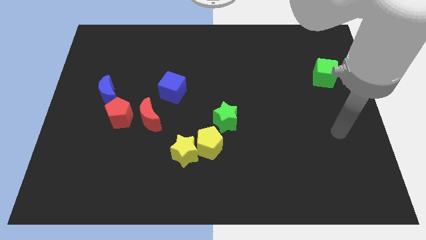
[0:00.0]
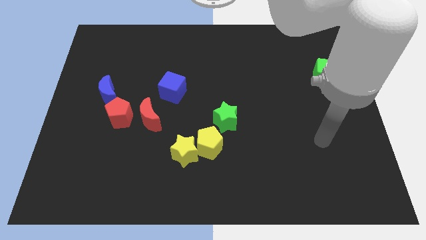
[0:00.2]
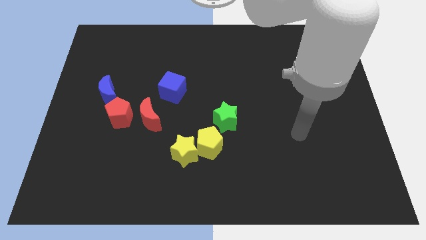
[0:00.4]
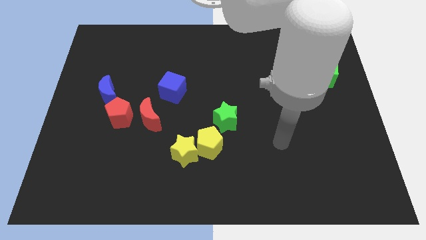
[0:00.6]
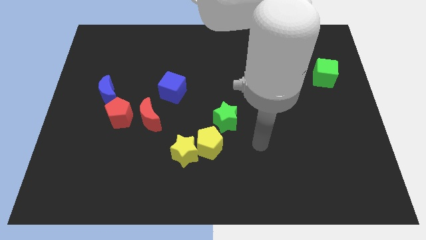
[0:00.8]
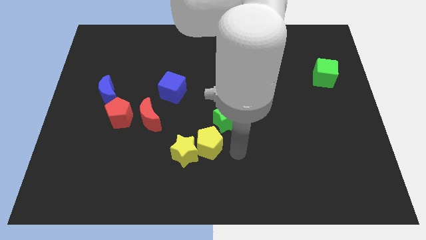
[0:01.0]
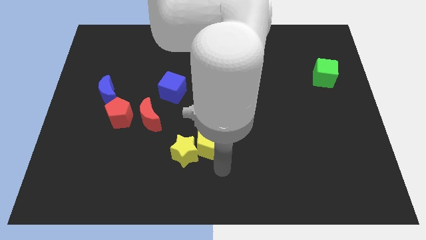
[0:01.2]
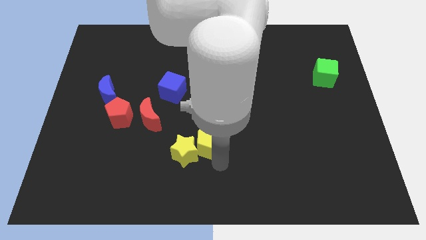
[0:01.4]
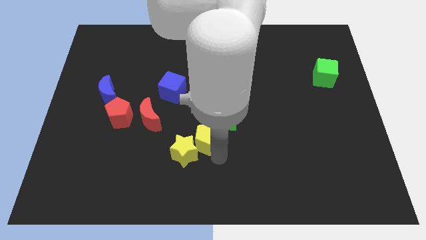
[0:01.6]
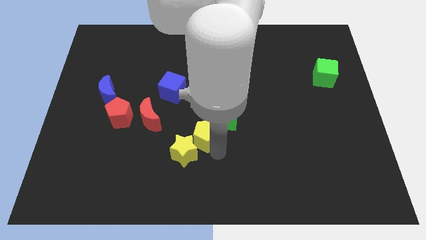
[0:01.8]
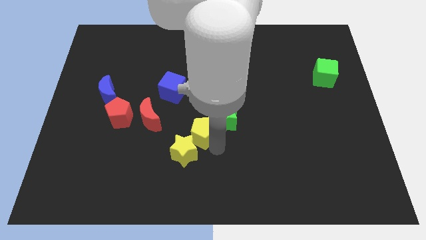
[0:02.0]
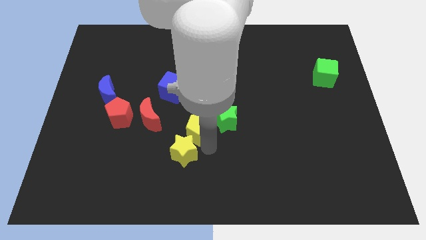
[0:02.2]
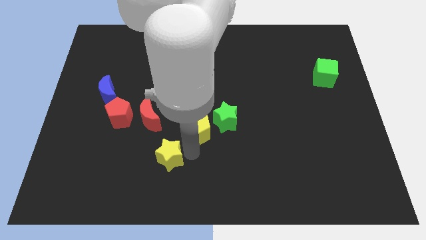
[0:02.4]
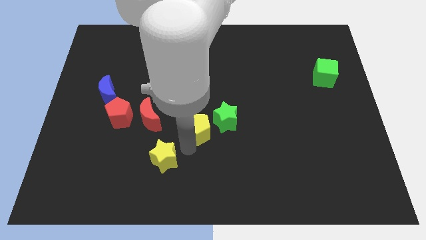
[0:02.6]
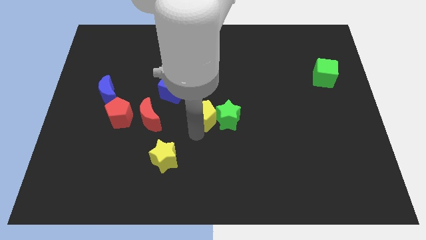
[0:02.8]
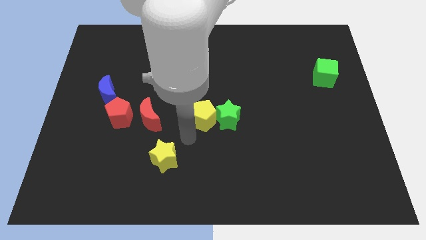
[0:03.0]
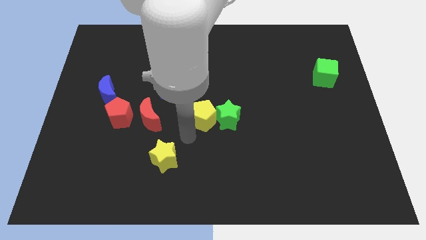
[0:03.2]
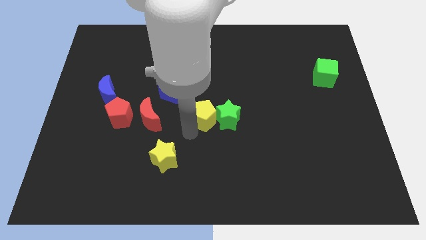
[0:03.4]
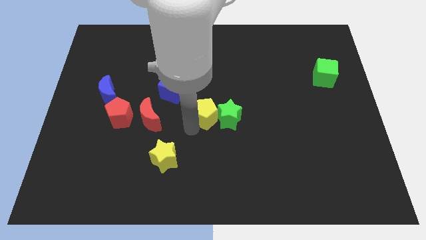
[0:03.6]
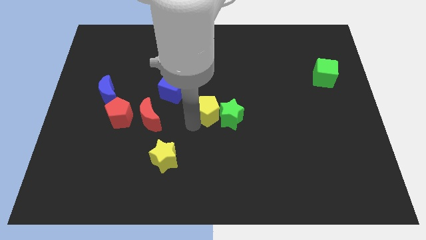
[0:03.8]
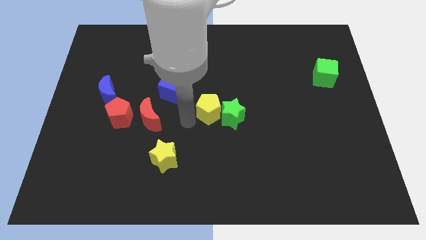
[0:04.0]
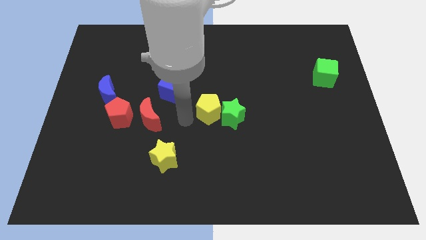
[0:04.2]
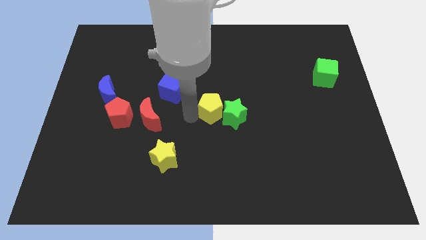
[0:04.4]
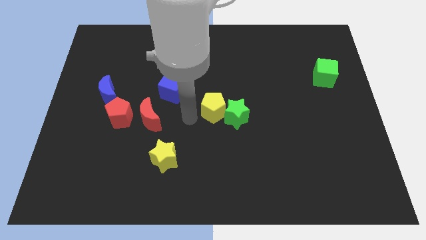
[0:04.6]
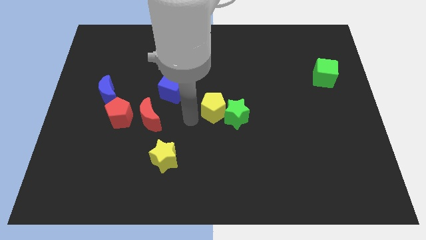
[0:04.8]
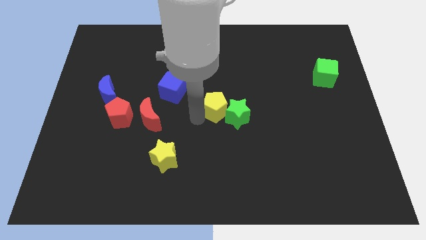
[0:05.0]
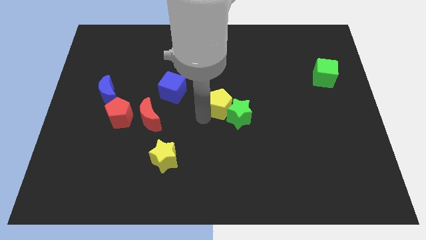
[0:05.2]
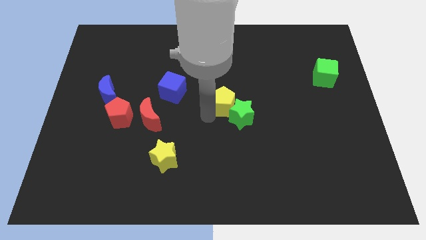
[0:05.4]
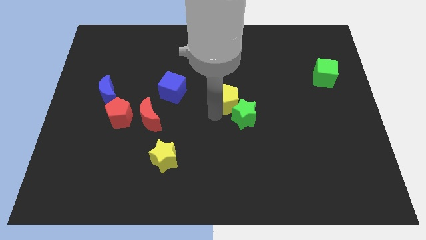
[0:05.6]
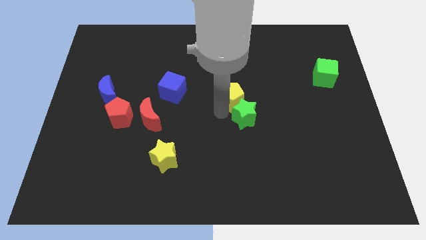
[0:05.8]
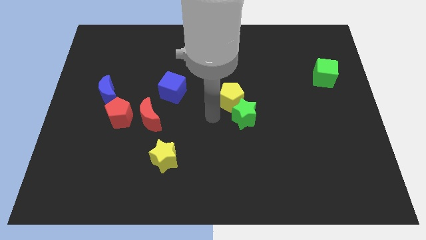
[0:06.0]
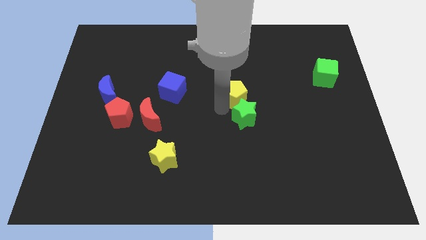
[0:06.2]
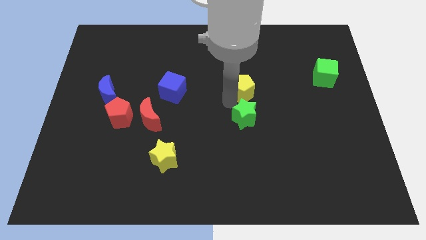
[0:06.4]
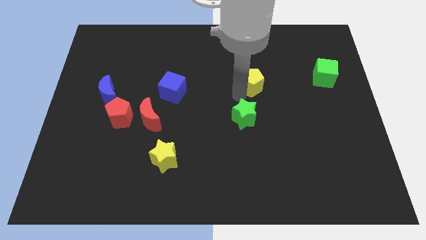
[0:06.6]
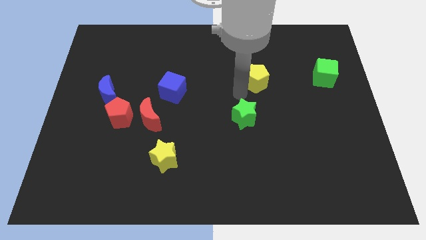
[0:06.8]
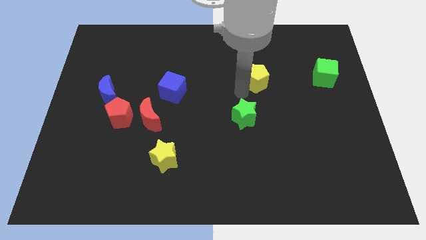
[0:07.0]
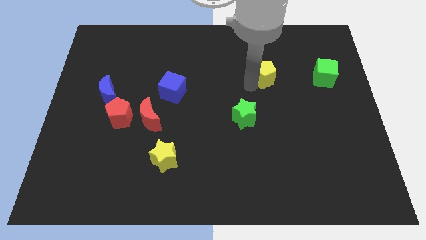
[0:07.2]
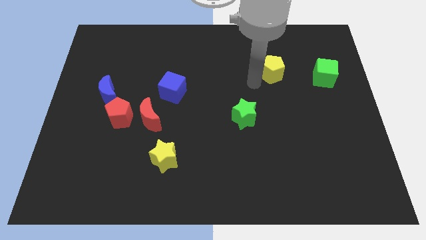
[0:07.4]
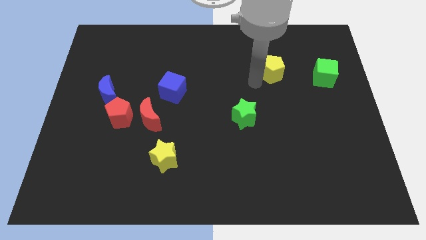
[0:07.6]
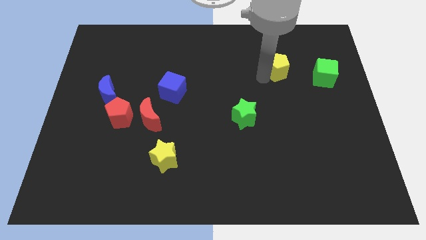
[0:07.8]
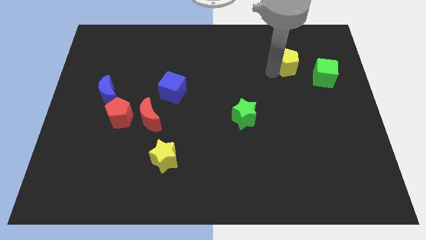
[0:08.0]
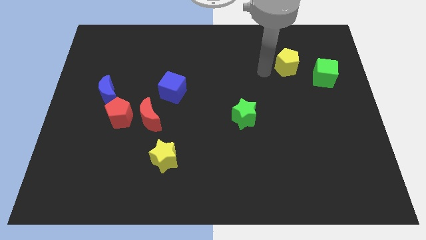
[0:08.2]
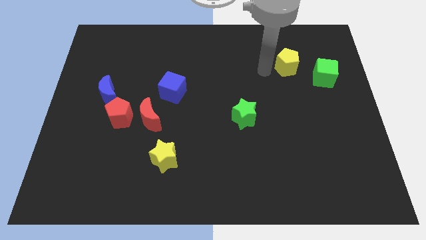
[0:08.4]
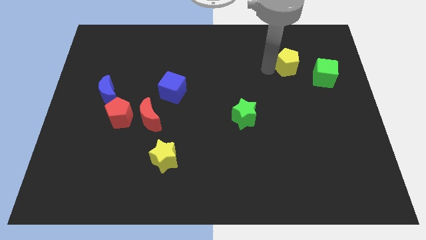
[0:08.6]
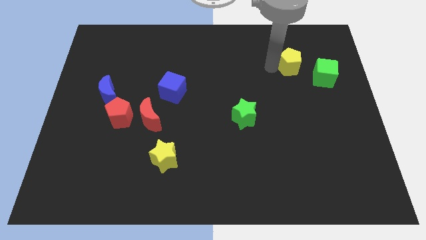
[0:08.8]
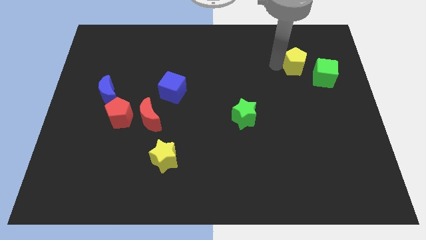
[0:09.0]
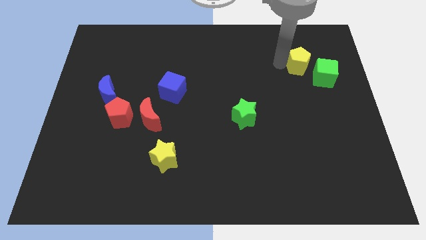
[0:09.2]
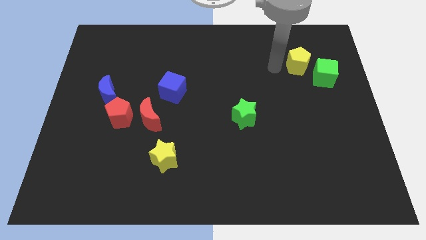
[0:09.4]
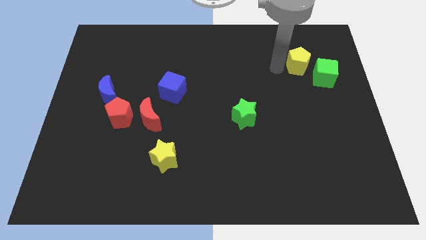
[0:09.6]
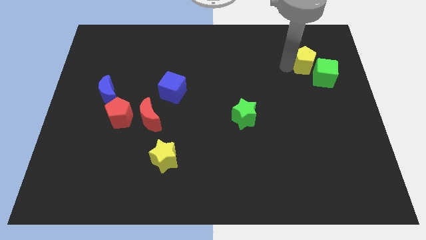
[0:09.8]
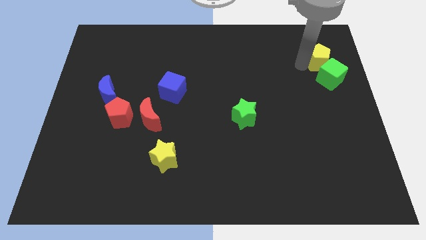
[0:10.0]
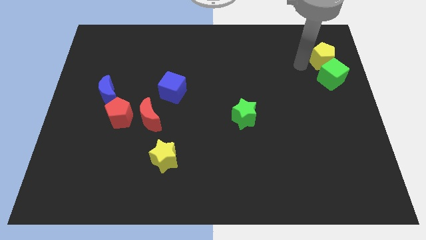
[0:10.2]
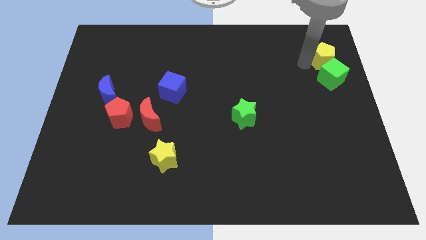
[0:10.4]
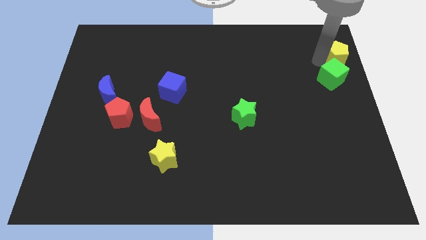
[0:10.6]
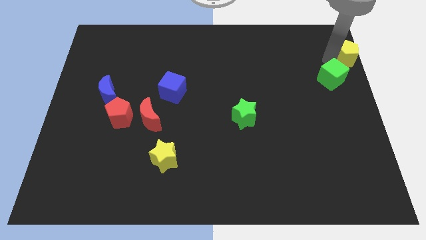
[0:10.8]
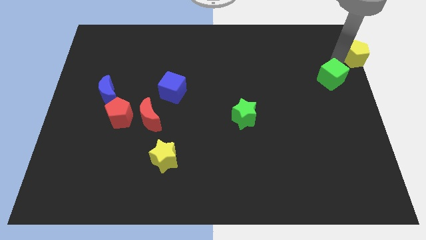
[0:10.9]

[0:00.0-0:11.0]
move the yellow pentagon to the top right

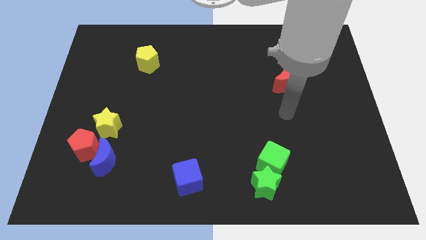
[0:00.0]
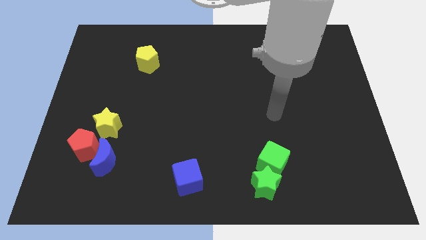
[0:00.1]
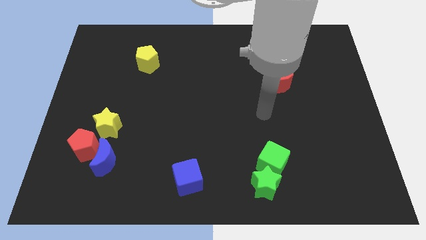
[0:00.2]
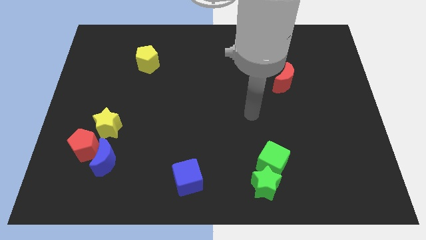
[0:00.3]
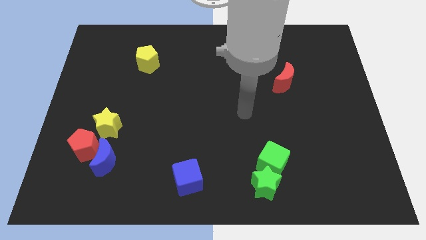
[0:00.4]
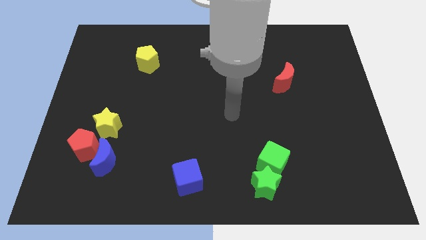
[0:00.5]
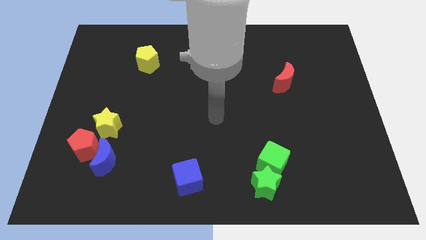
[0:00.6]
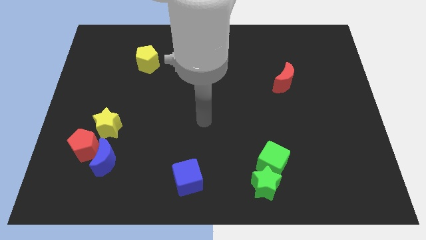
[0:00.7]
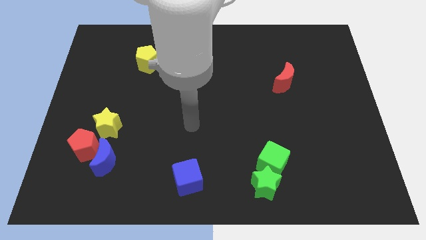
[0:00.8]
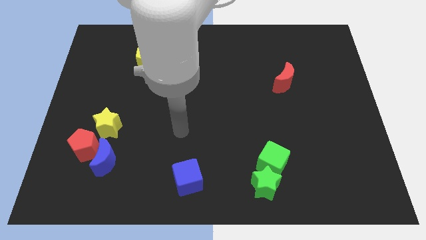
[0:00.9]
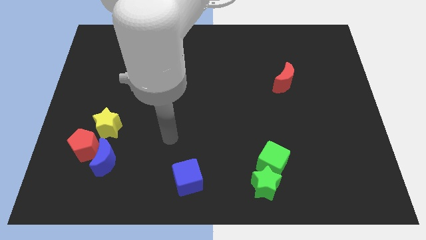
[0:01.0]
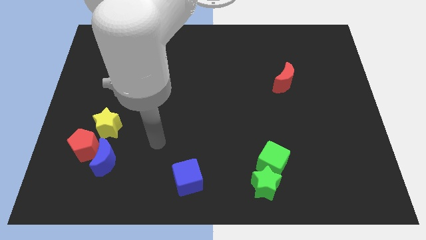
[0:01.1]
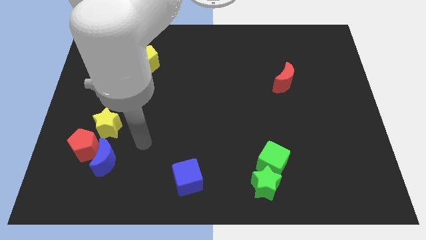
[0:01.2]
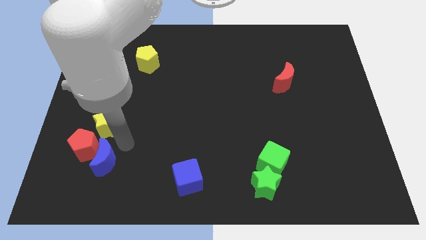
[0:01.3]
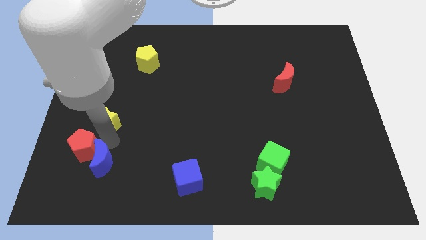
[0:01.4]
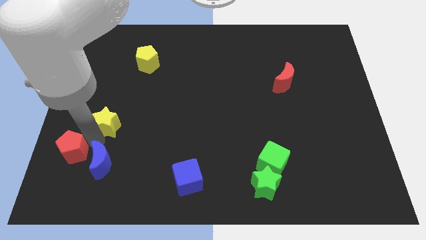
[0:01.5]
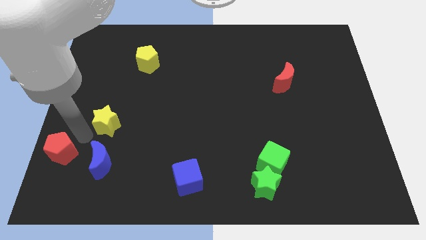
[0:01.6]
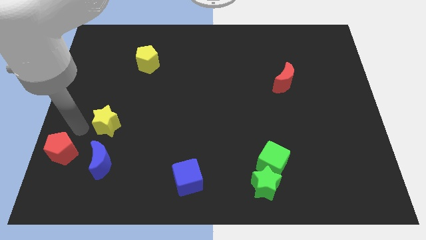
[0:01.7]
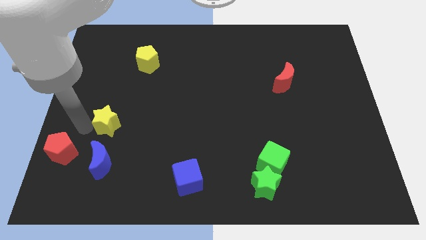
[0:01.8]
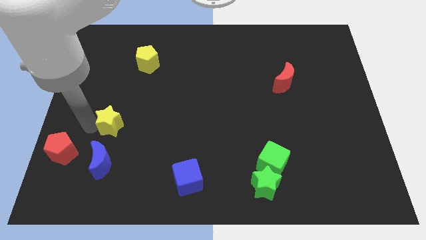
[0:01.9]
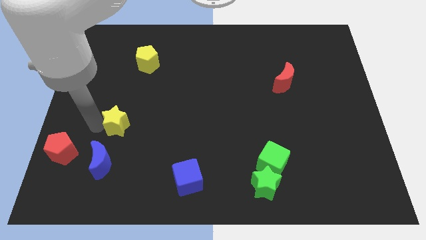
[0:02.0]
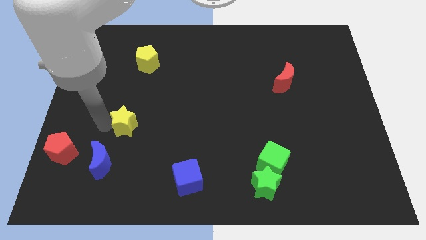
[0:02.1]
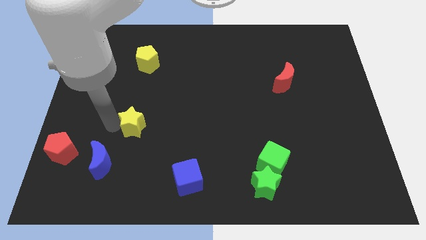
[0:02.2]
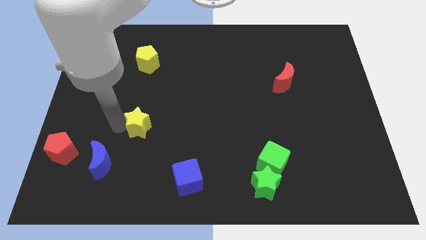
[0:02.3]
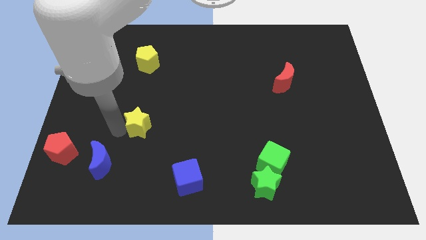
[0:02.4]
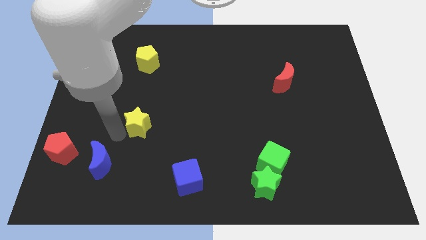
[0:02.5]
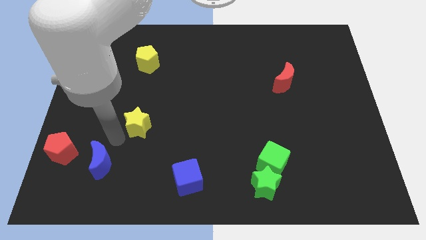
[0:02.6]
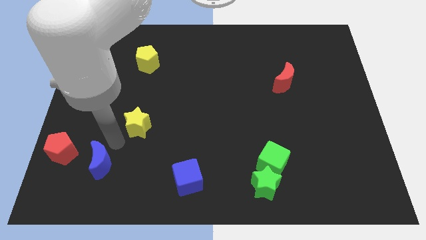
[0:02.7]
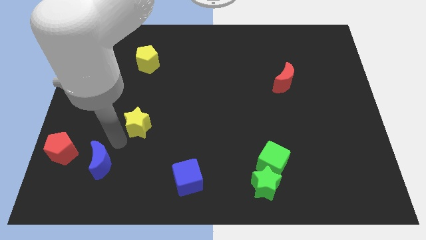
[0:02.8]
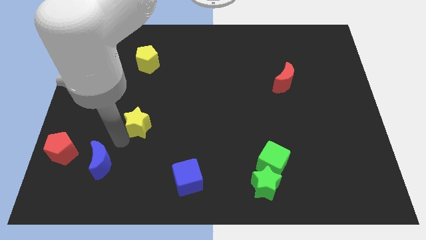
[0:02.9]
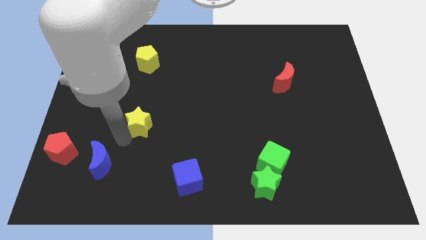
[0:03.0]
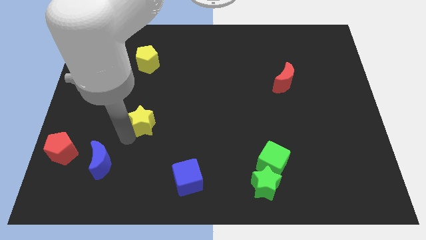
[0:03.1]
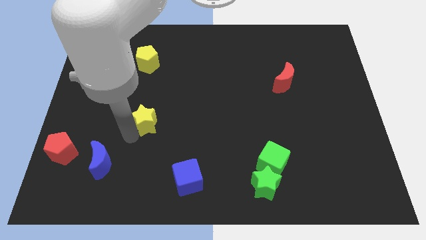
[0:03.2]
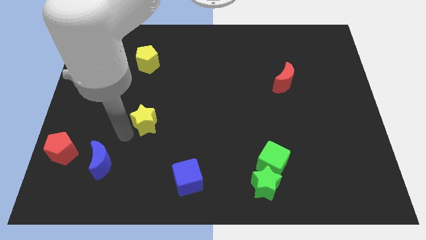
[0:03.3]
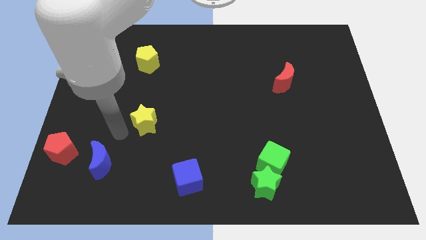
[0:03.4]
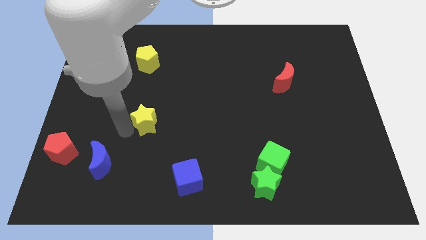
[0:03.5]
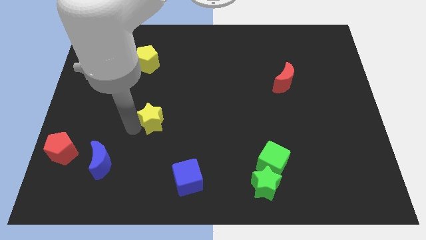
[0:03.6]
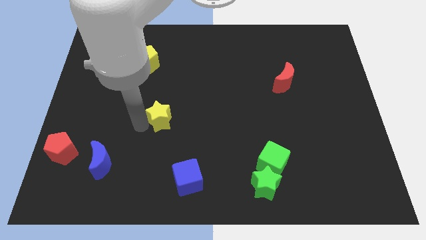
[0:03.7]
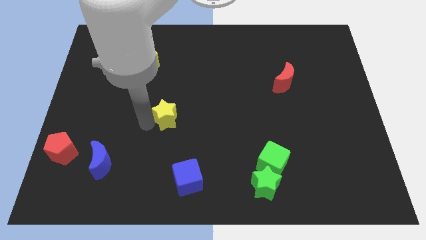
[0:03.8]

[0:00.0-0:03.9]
push the yellow star to the center of the board
